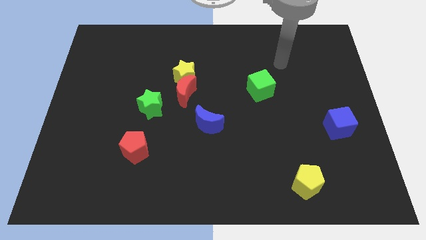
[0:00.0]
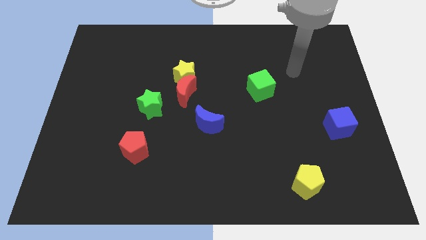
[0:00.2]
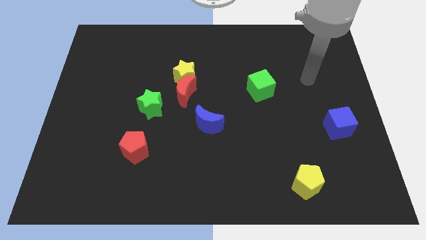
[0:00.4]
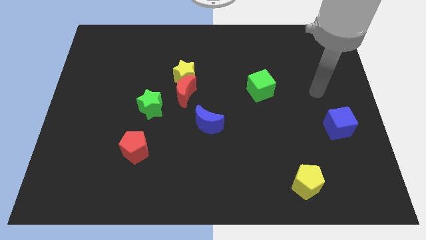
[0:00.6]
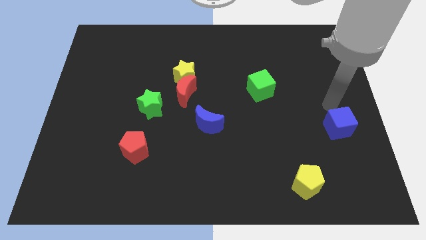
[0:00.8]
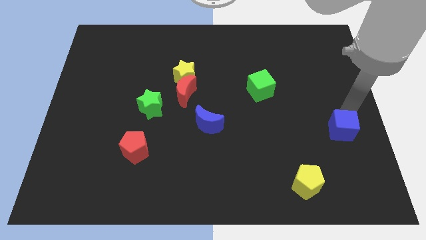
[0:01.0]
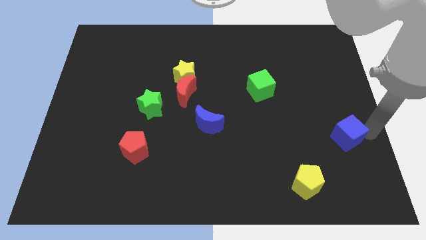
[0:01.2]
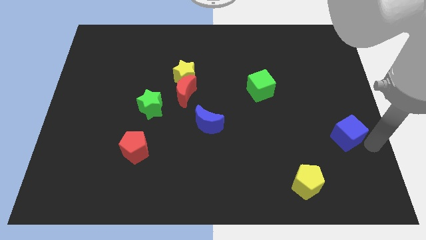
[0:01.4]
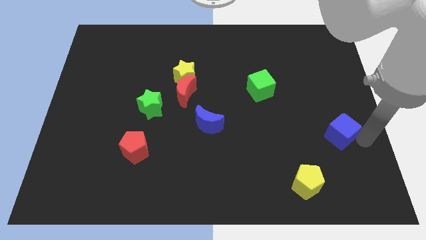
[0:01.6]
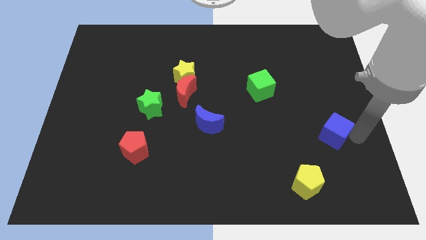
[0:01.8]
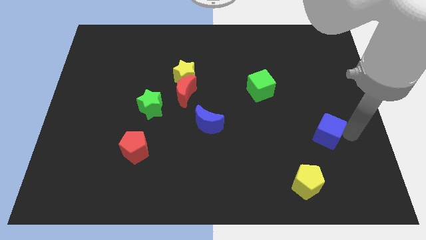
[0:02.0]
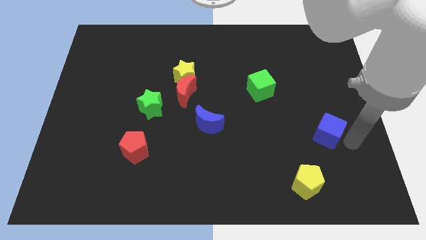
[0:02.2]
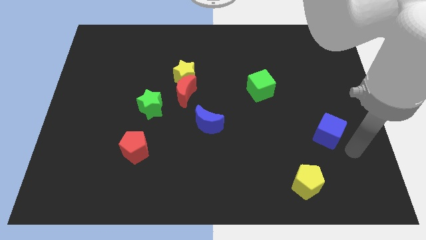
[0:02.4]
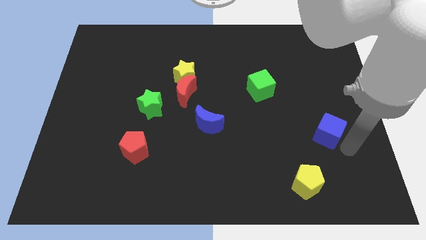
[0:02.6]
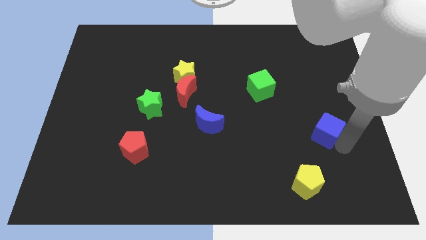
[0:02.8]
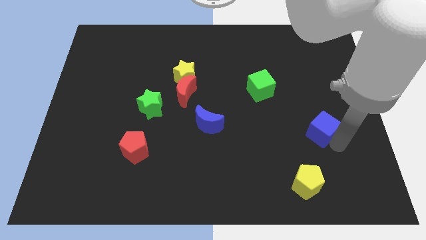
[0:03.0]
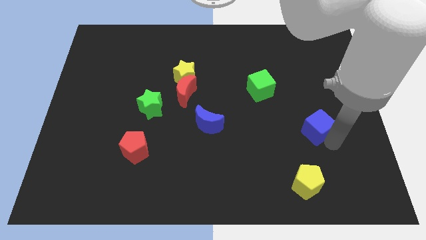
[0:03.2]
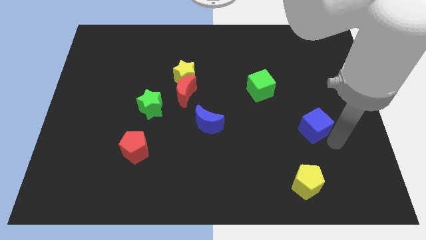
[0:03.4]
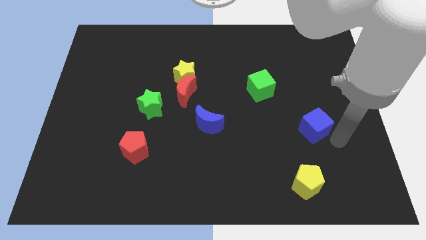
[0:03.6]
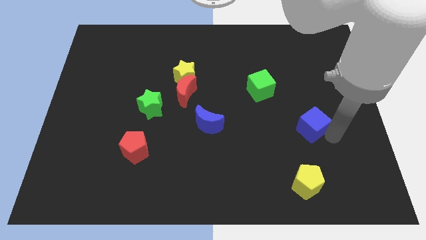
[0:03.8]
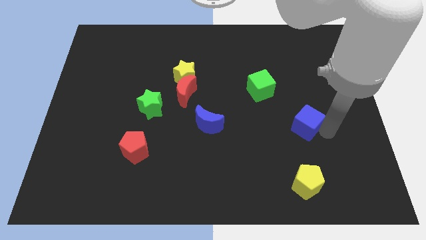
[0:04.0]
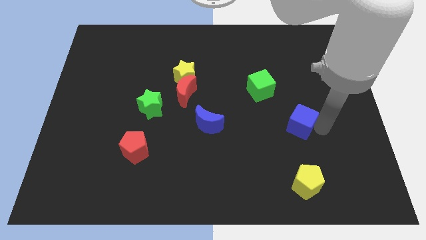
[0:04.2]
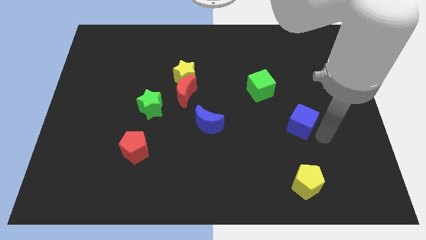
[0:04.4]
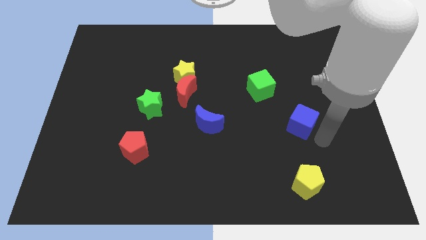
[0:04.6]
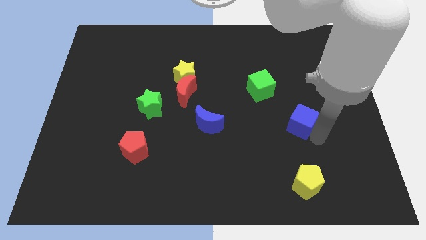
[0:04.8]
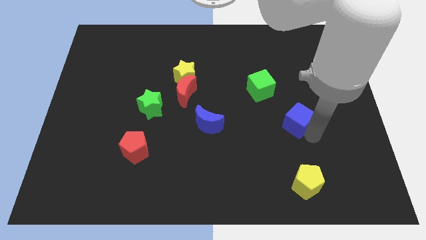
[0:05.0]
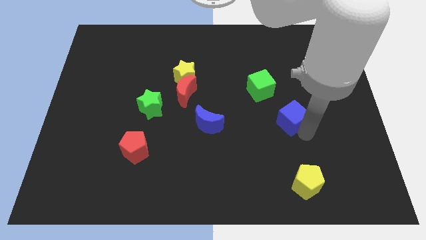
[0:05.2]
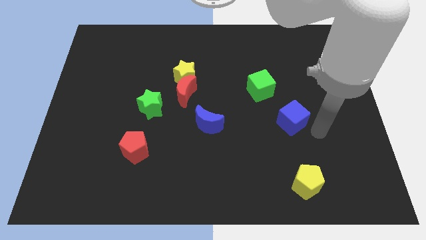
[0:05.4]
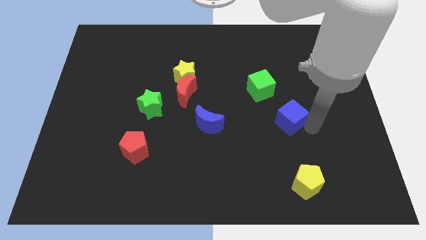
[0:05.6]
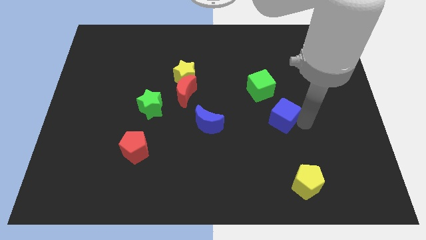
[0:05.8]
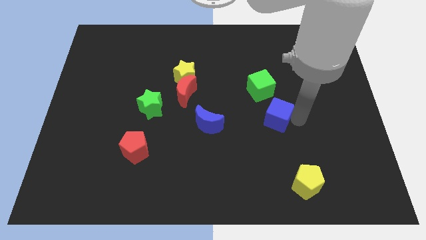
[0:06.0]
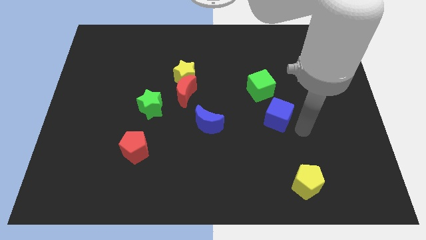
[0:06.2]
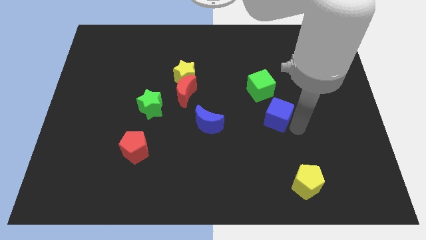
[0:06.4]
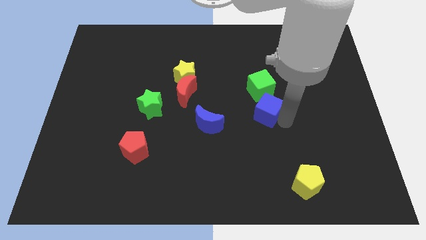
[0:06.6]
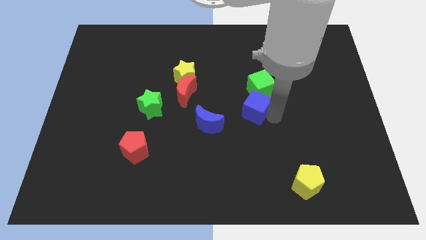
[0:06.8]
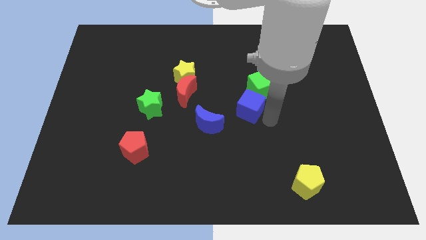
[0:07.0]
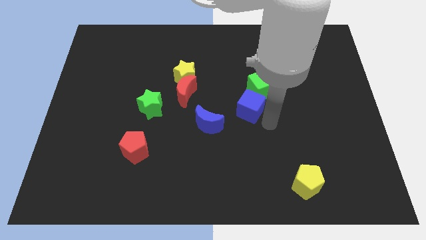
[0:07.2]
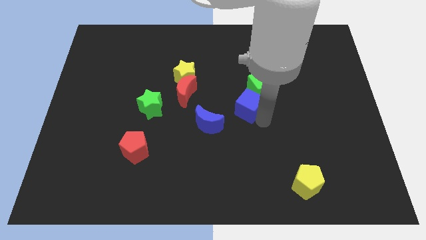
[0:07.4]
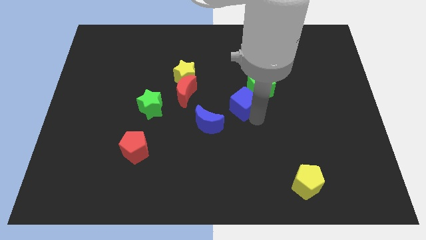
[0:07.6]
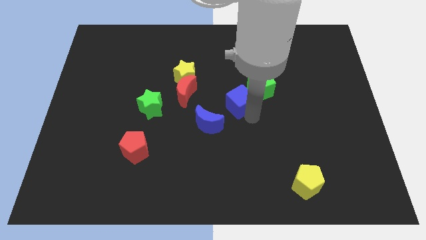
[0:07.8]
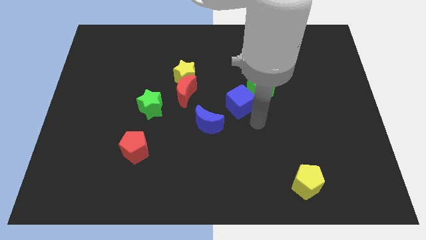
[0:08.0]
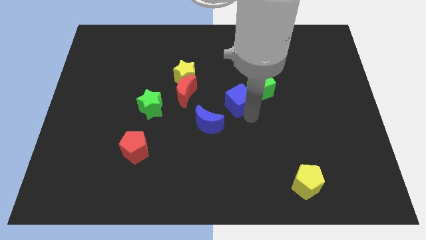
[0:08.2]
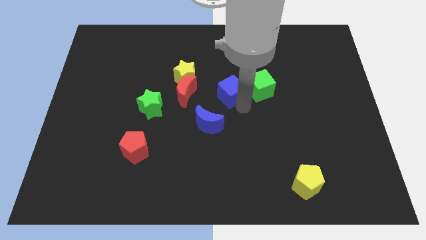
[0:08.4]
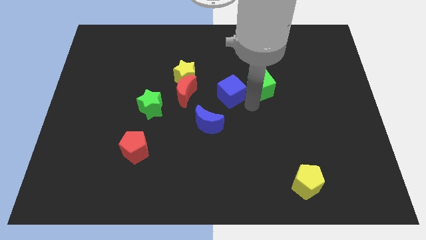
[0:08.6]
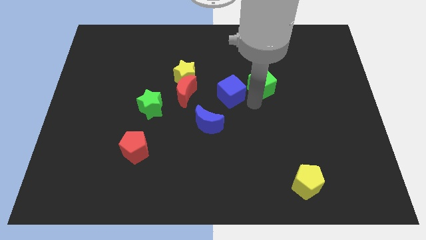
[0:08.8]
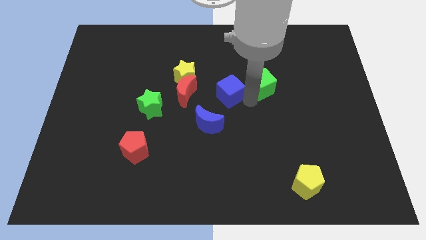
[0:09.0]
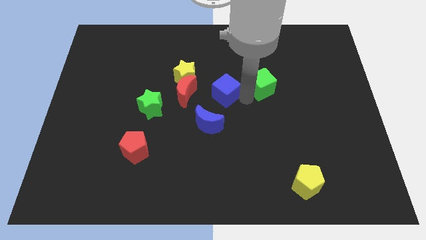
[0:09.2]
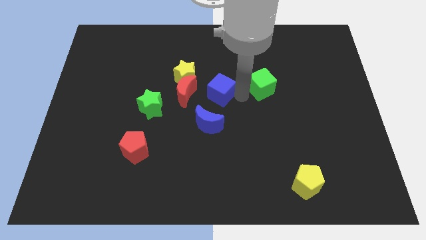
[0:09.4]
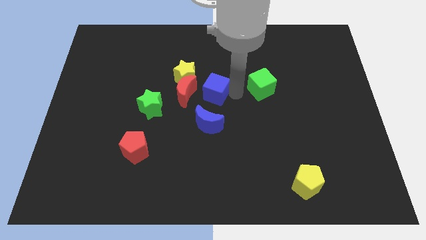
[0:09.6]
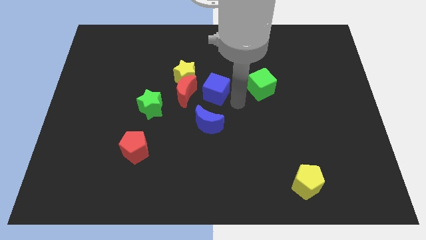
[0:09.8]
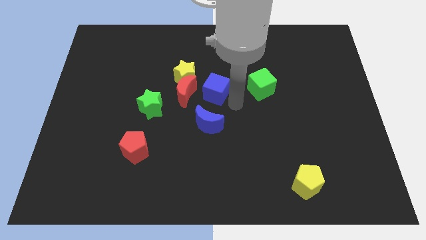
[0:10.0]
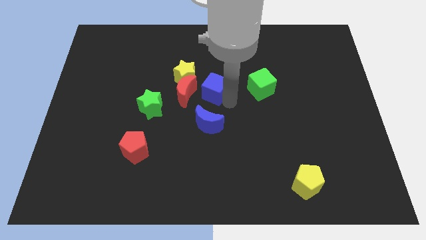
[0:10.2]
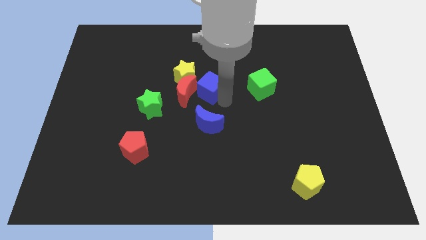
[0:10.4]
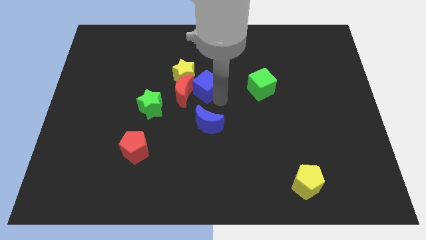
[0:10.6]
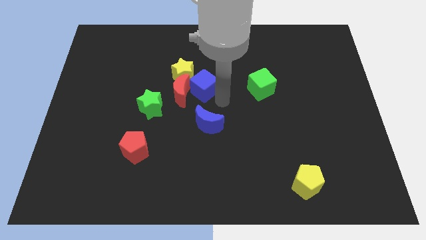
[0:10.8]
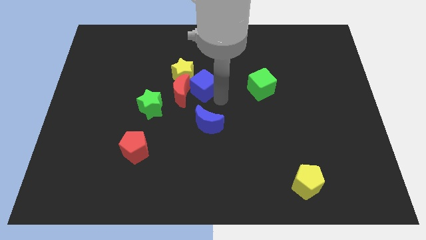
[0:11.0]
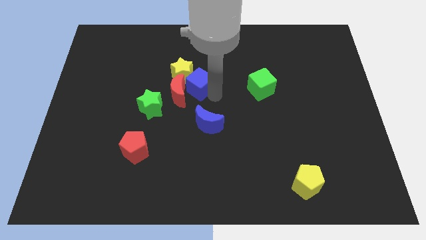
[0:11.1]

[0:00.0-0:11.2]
put the blue cube towards the yellow star

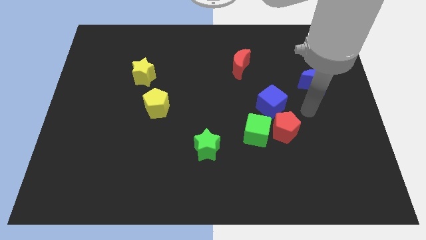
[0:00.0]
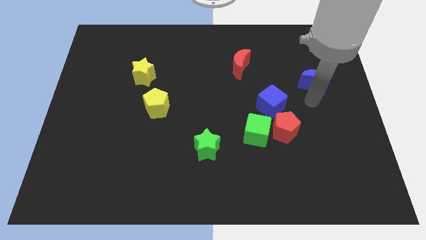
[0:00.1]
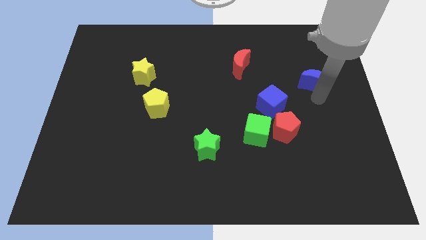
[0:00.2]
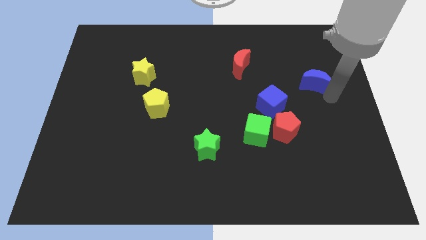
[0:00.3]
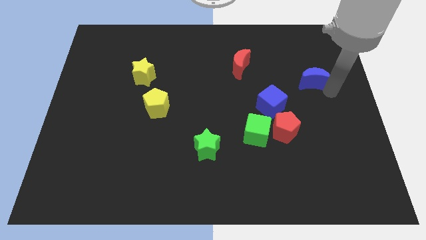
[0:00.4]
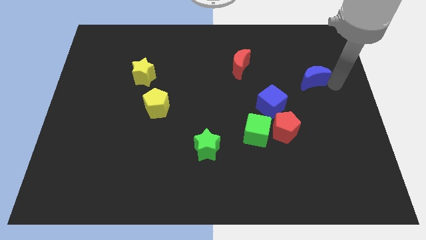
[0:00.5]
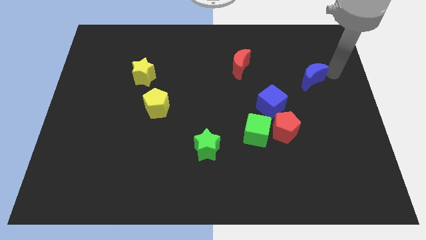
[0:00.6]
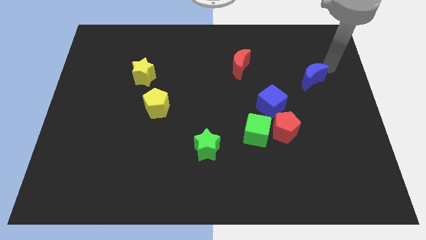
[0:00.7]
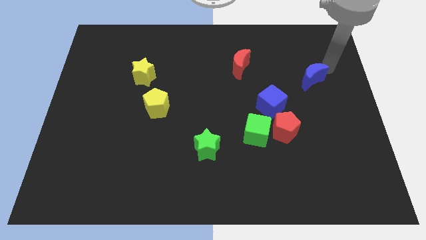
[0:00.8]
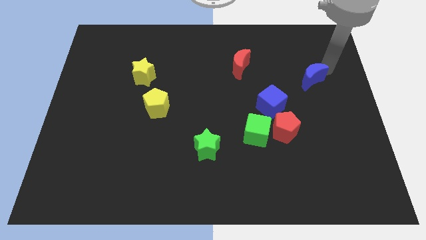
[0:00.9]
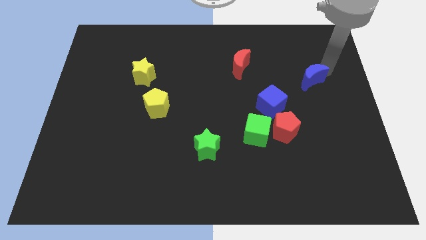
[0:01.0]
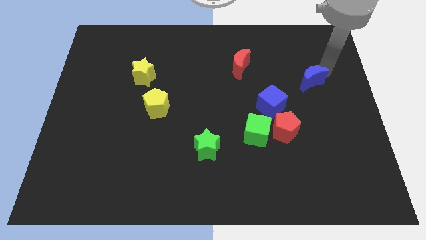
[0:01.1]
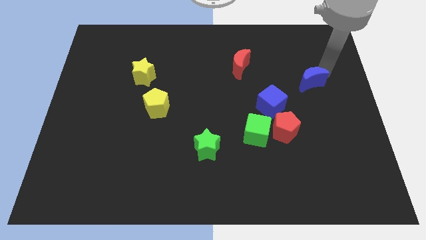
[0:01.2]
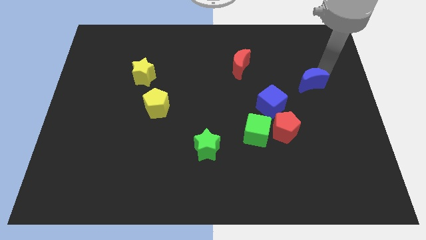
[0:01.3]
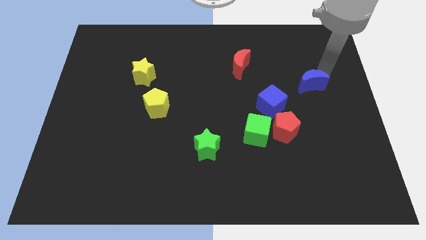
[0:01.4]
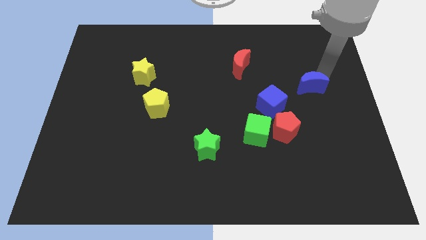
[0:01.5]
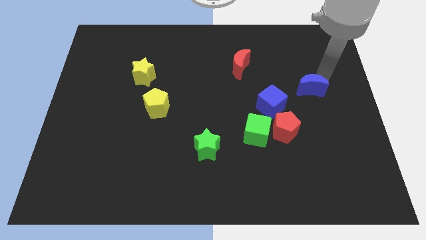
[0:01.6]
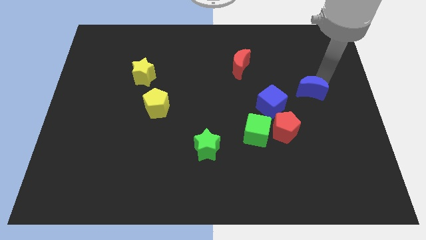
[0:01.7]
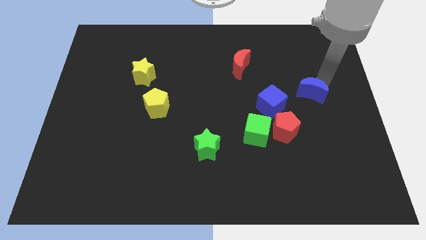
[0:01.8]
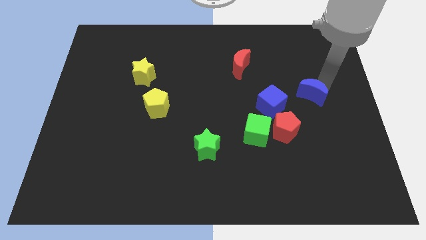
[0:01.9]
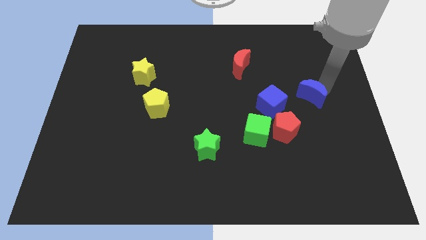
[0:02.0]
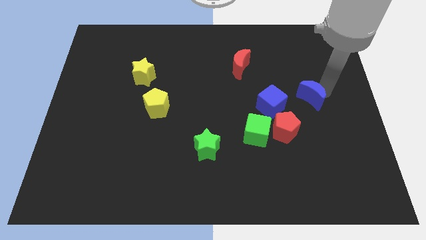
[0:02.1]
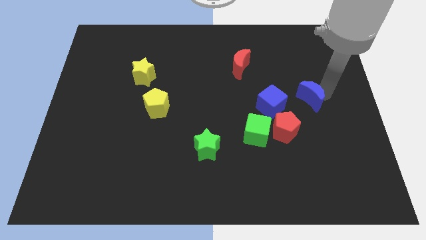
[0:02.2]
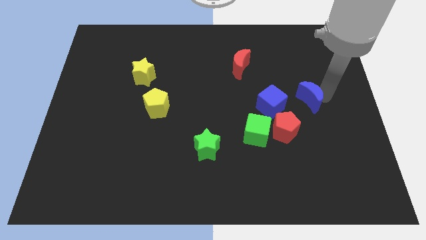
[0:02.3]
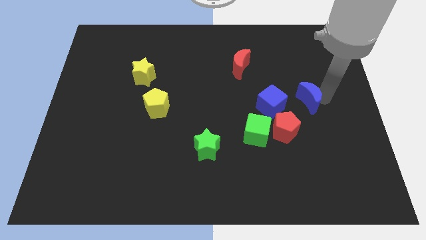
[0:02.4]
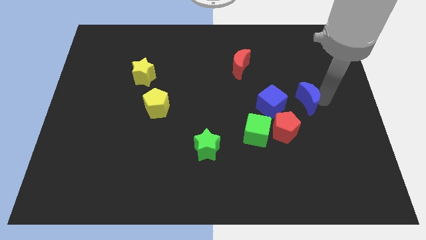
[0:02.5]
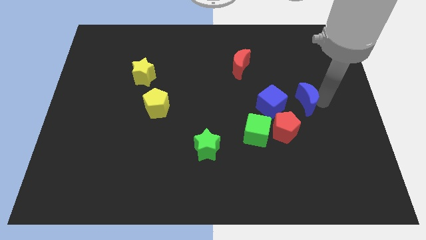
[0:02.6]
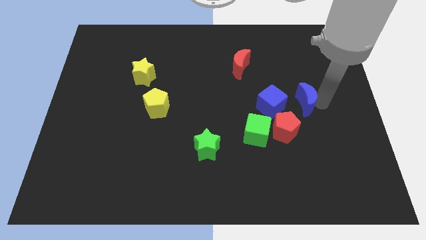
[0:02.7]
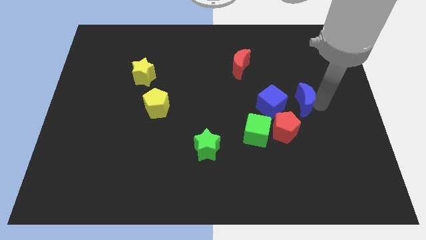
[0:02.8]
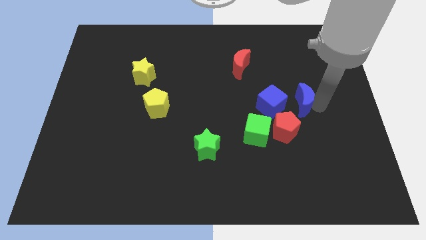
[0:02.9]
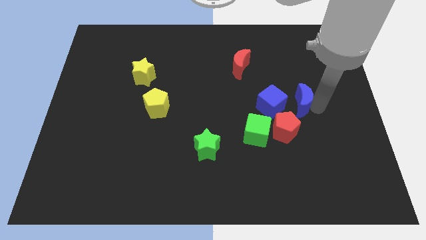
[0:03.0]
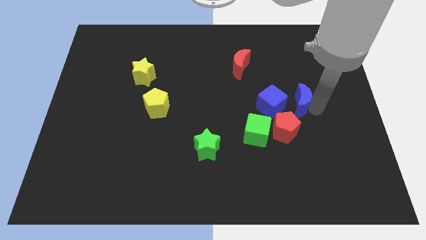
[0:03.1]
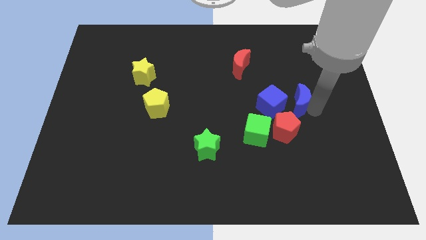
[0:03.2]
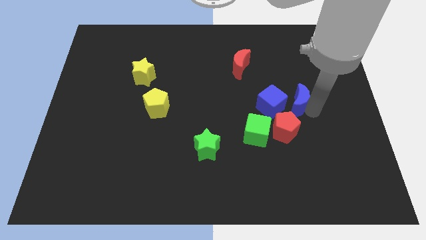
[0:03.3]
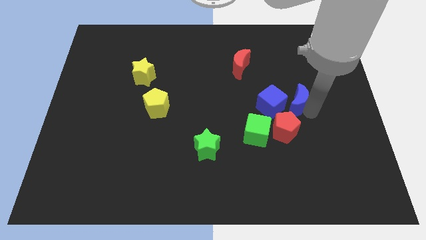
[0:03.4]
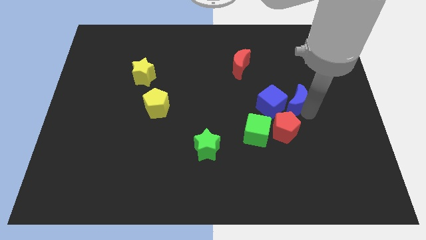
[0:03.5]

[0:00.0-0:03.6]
put the blue moon next to the blue cube
